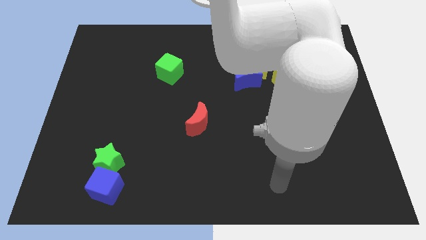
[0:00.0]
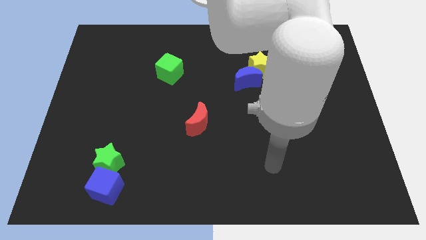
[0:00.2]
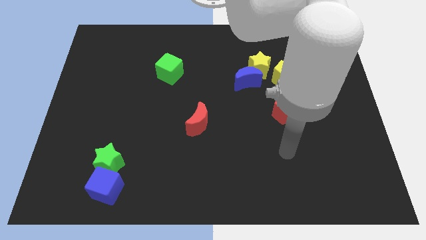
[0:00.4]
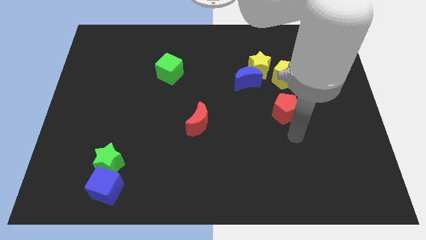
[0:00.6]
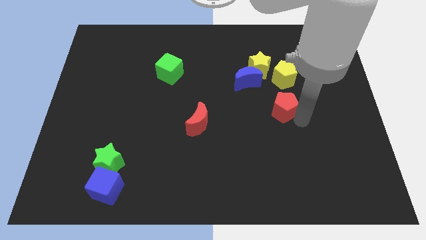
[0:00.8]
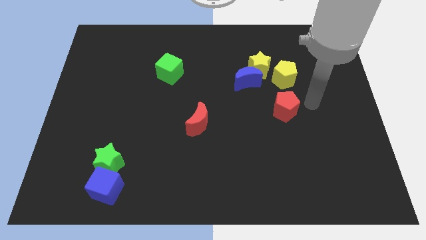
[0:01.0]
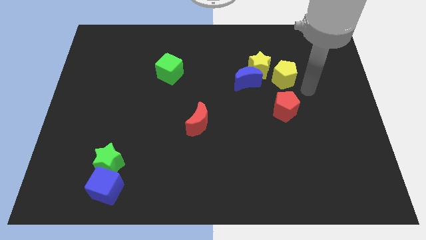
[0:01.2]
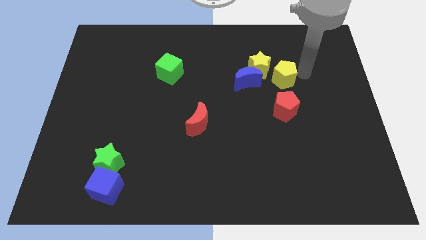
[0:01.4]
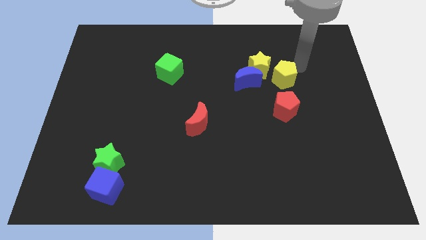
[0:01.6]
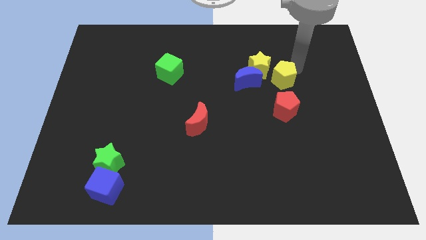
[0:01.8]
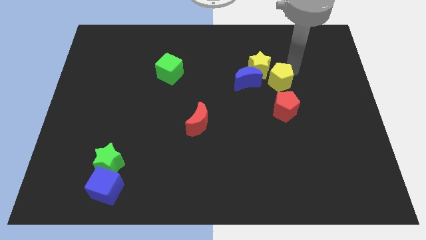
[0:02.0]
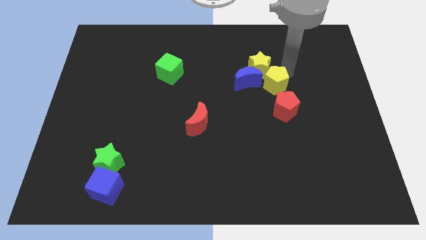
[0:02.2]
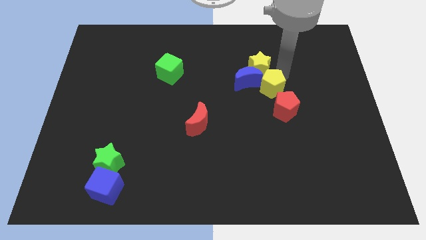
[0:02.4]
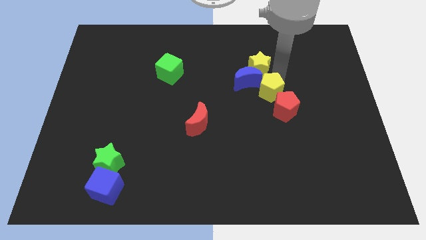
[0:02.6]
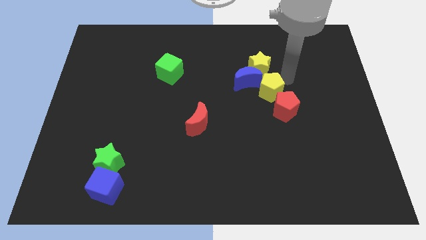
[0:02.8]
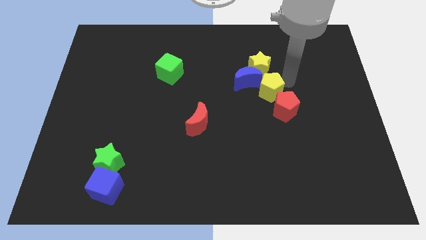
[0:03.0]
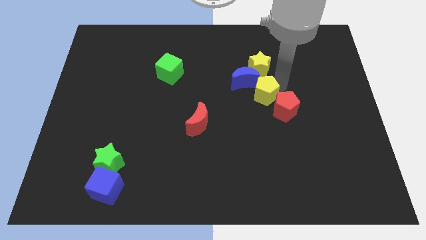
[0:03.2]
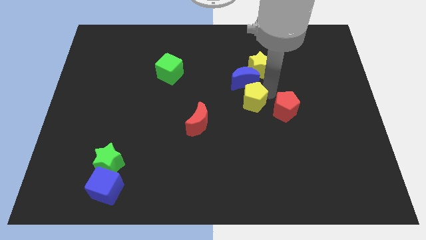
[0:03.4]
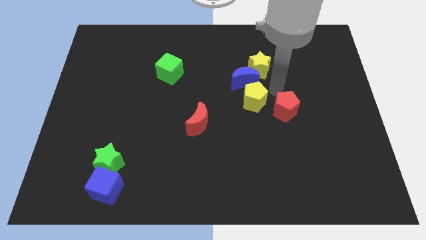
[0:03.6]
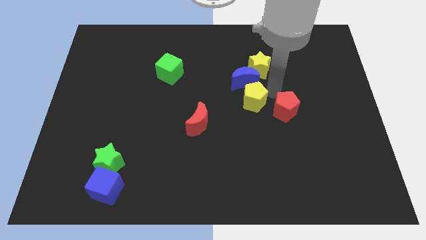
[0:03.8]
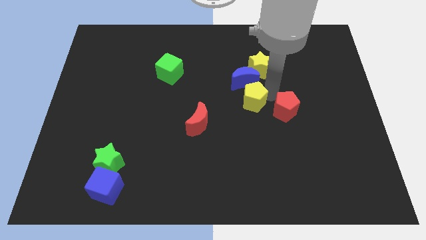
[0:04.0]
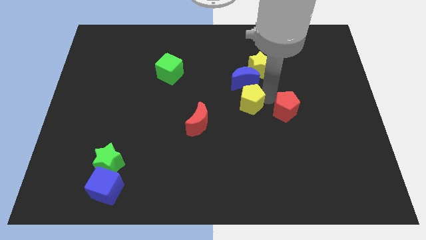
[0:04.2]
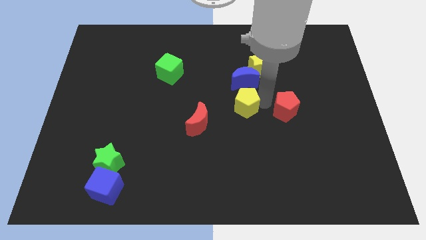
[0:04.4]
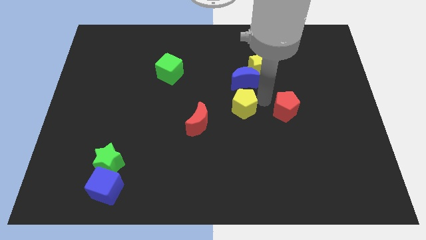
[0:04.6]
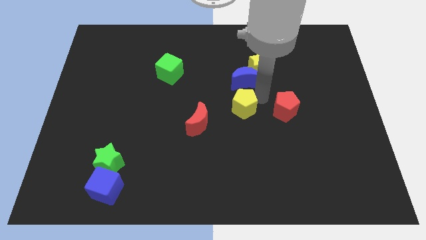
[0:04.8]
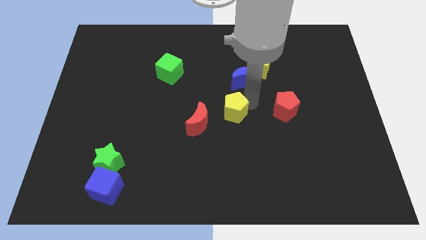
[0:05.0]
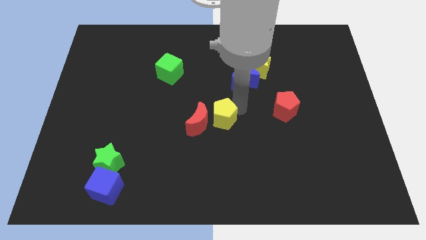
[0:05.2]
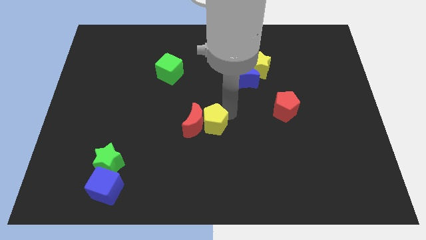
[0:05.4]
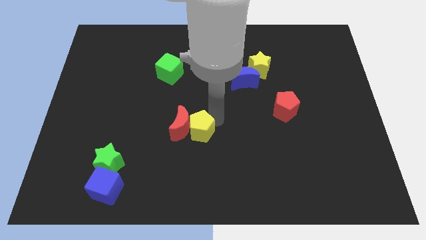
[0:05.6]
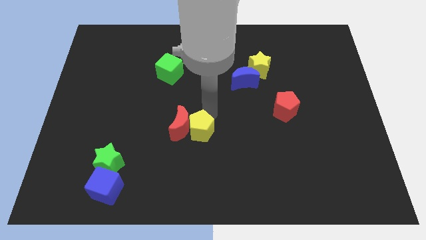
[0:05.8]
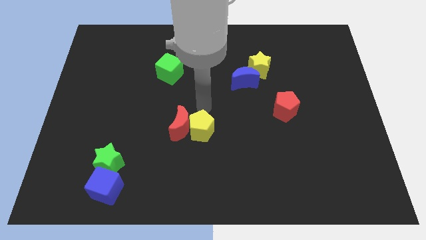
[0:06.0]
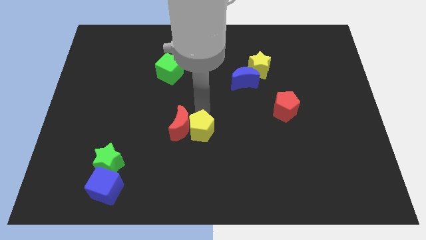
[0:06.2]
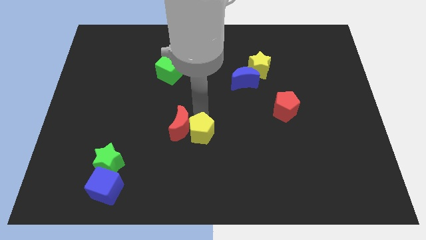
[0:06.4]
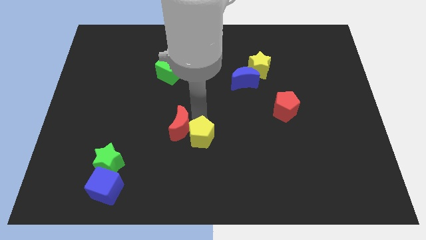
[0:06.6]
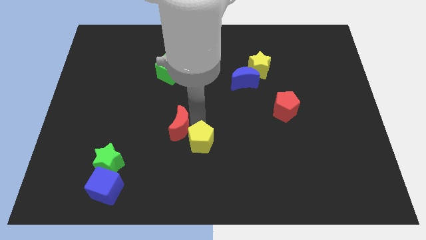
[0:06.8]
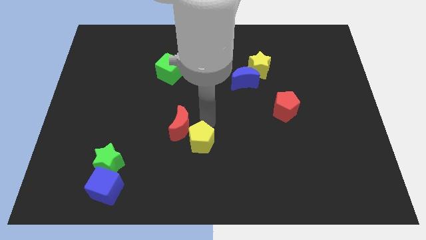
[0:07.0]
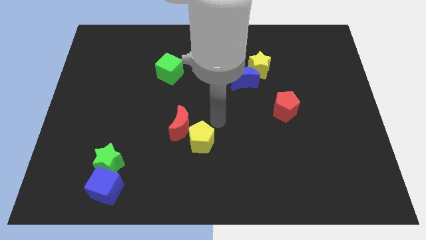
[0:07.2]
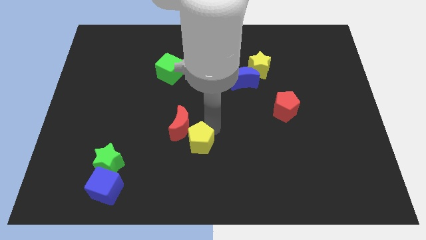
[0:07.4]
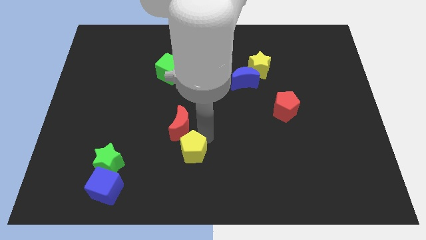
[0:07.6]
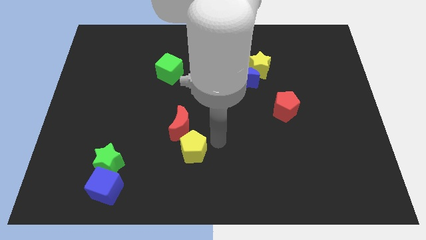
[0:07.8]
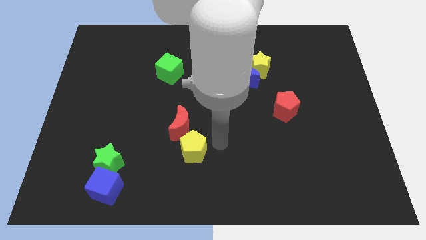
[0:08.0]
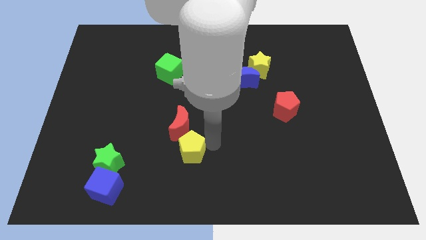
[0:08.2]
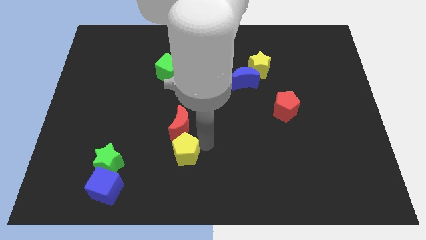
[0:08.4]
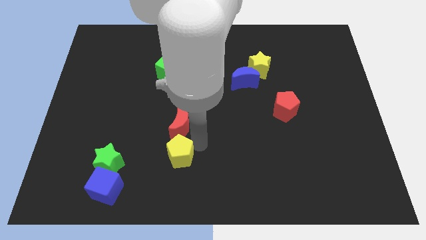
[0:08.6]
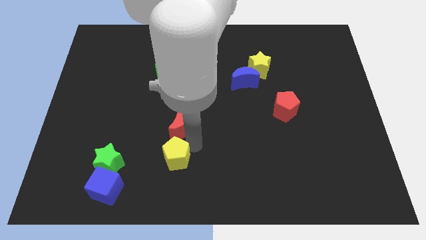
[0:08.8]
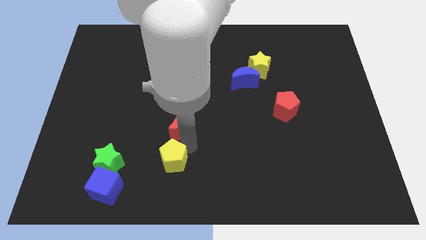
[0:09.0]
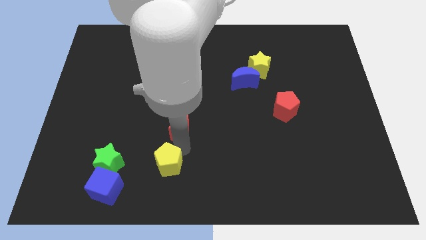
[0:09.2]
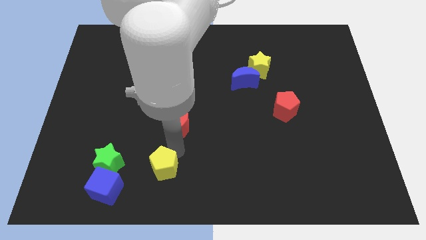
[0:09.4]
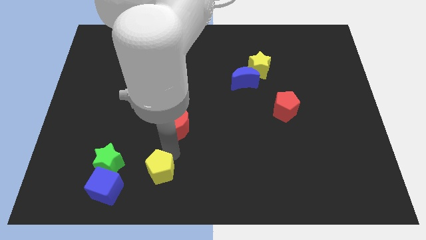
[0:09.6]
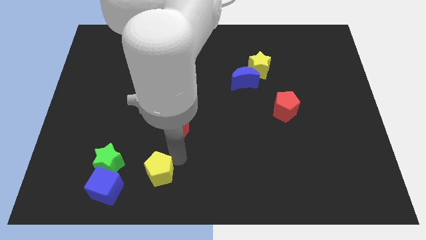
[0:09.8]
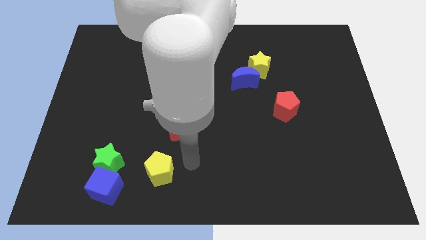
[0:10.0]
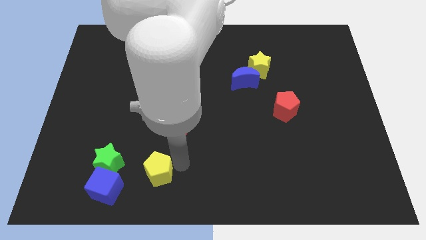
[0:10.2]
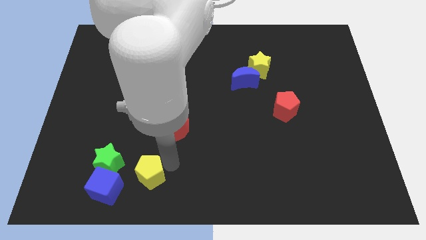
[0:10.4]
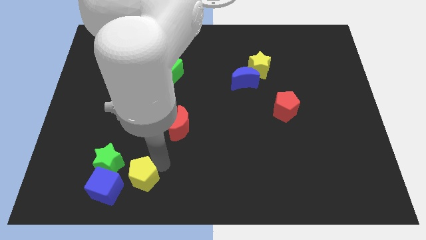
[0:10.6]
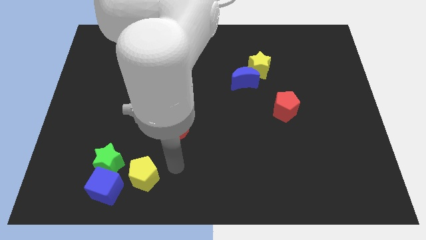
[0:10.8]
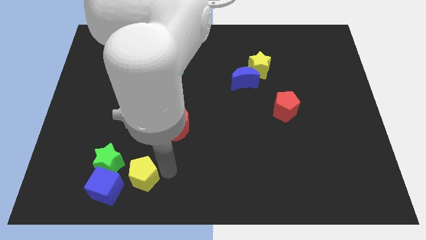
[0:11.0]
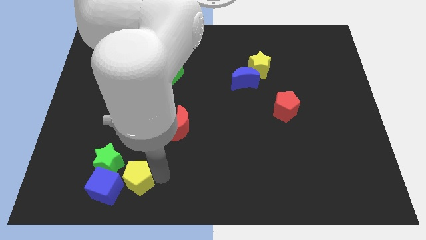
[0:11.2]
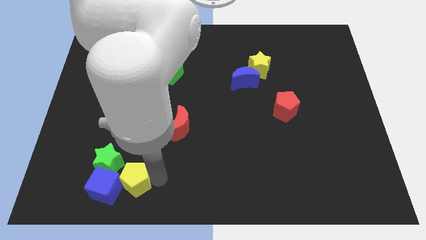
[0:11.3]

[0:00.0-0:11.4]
slide the yellow pentagon towards the blue cube

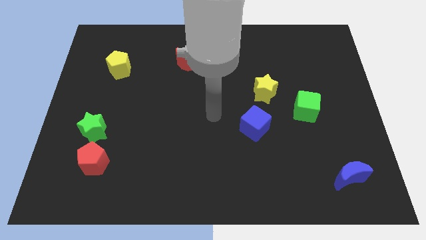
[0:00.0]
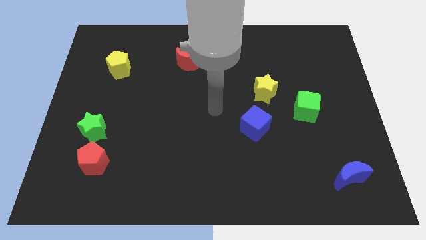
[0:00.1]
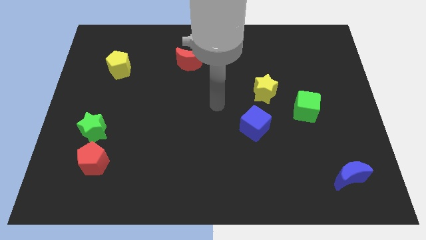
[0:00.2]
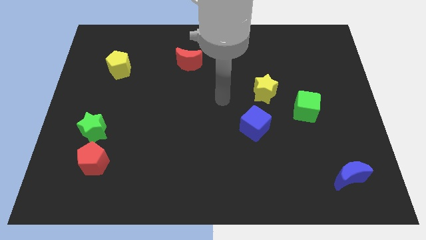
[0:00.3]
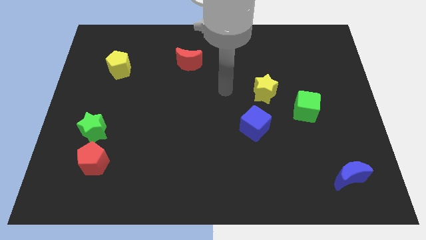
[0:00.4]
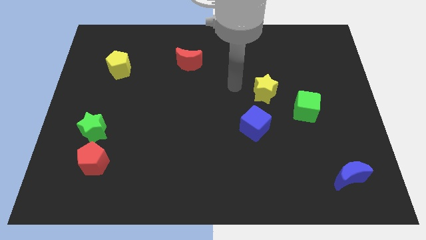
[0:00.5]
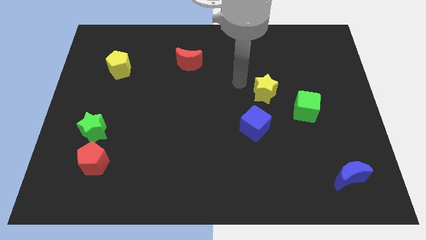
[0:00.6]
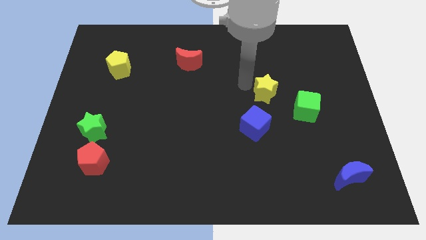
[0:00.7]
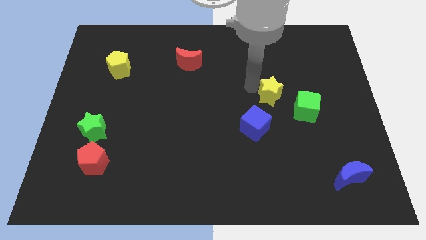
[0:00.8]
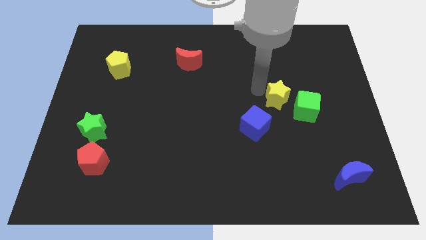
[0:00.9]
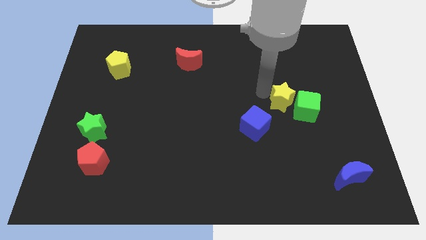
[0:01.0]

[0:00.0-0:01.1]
slide the yellow star to the green cube
